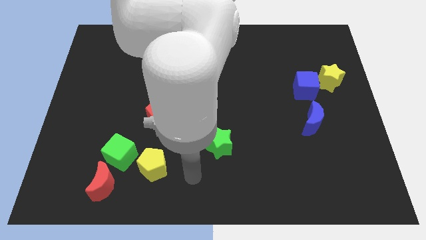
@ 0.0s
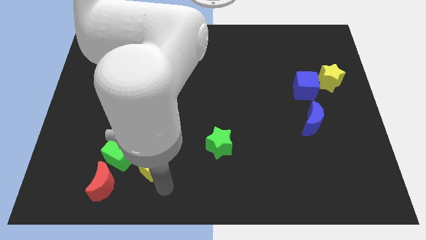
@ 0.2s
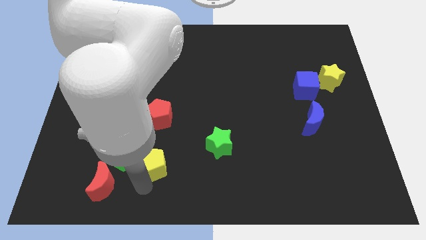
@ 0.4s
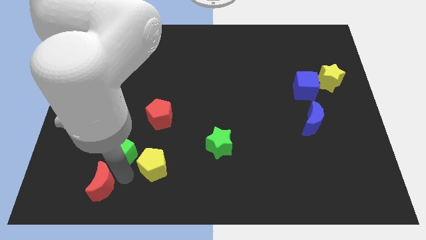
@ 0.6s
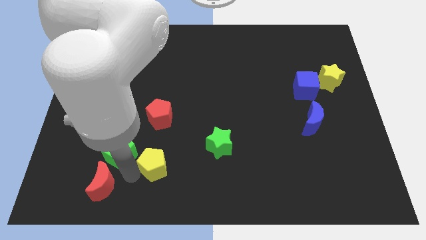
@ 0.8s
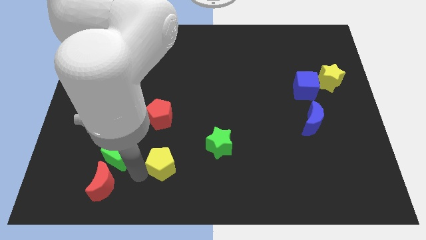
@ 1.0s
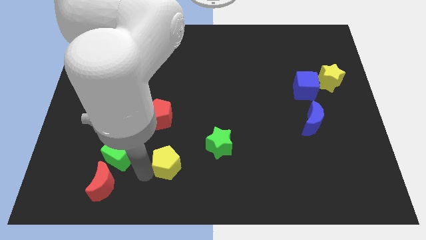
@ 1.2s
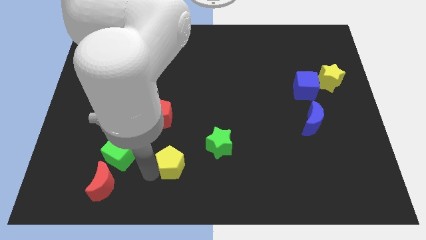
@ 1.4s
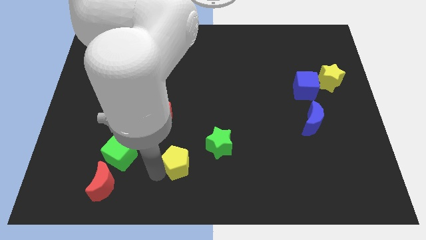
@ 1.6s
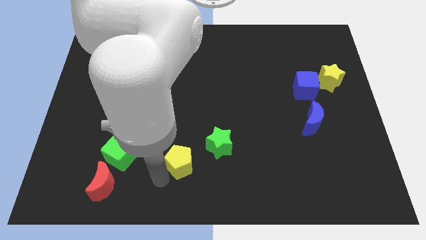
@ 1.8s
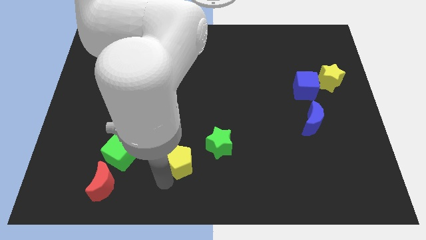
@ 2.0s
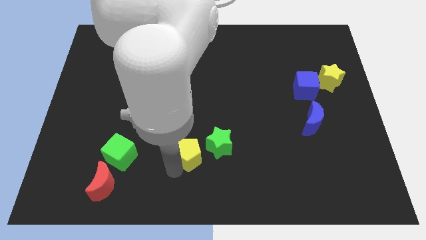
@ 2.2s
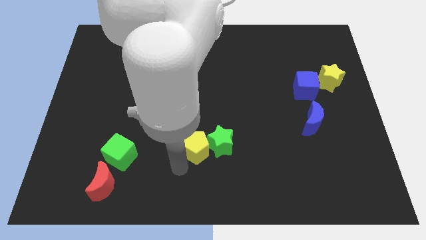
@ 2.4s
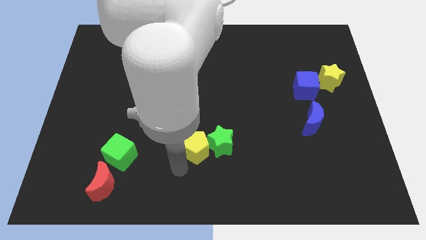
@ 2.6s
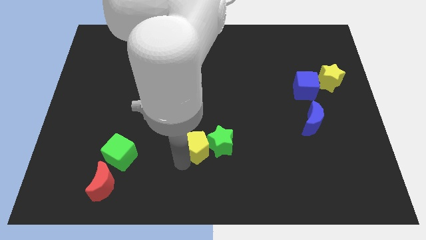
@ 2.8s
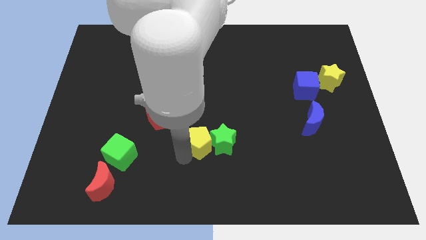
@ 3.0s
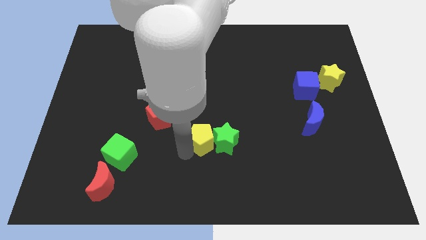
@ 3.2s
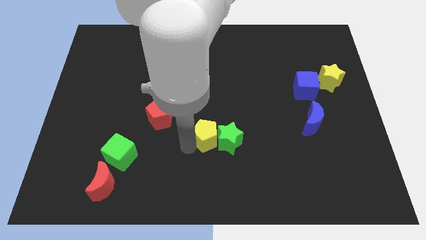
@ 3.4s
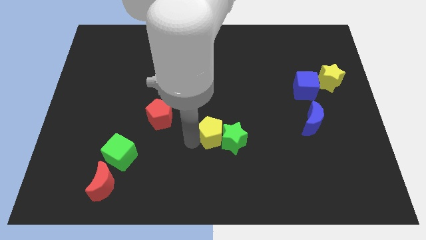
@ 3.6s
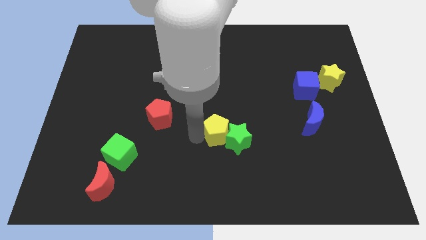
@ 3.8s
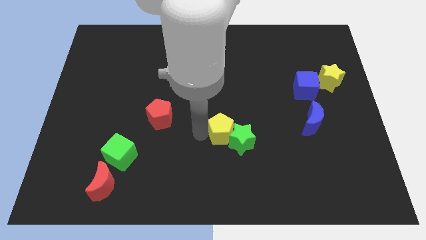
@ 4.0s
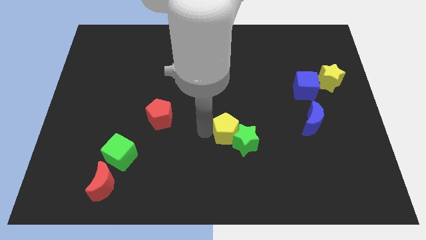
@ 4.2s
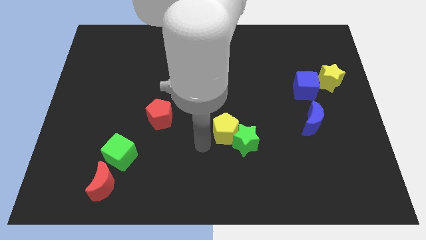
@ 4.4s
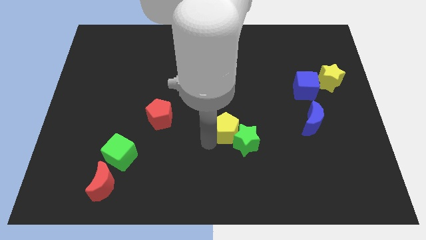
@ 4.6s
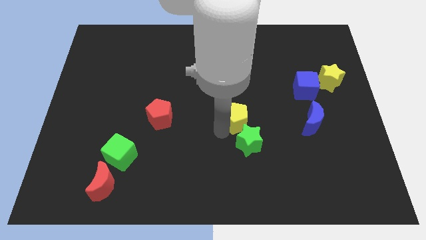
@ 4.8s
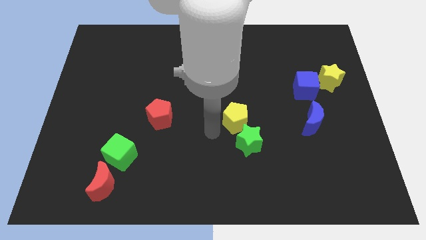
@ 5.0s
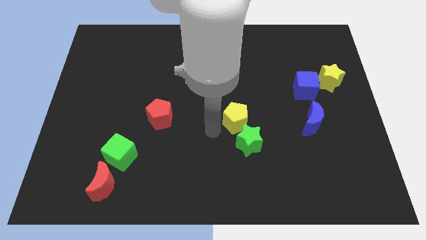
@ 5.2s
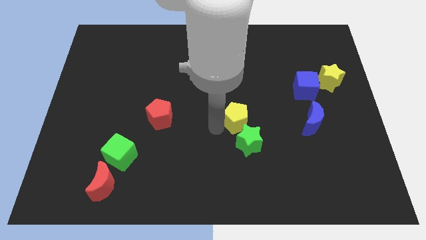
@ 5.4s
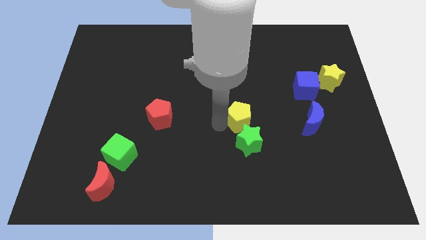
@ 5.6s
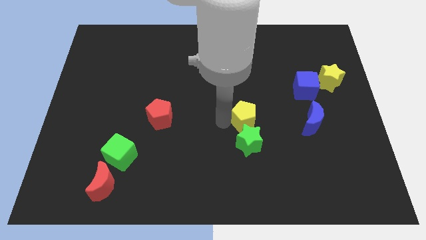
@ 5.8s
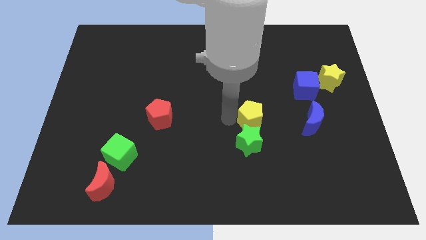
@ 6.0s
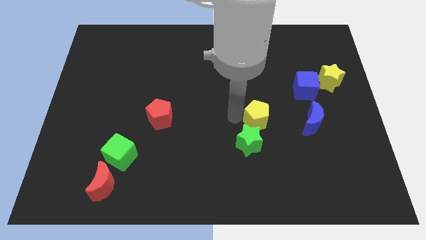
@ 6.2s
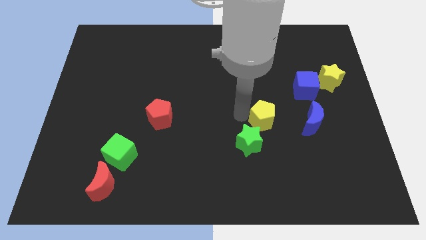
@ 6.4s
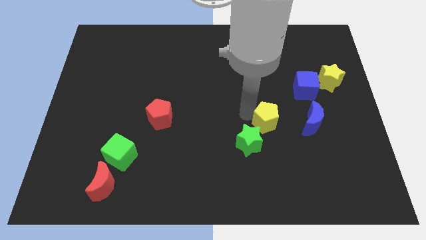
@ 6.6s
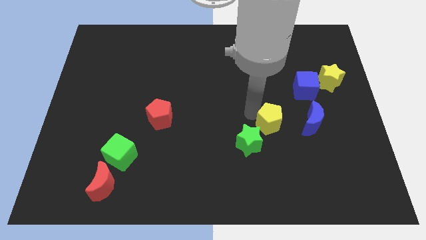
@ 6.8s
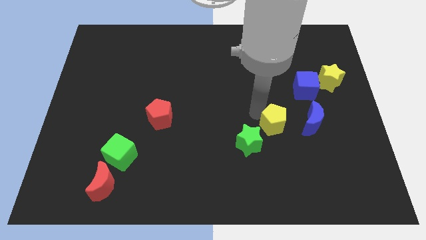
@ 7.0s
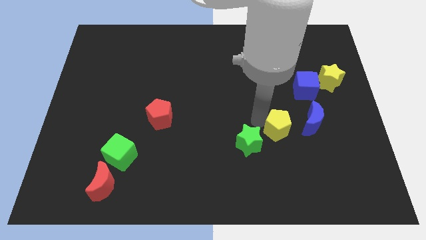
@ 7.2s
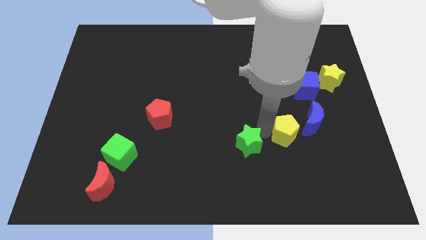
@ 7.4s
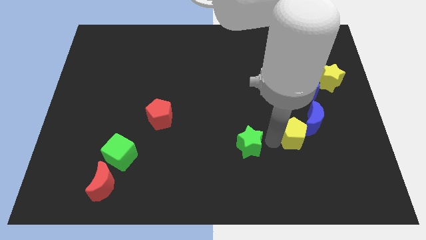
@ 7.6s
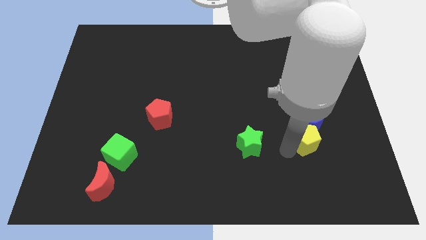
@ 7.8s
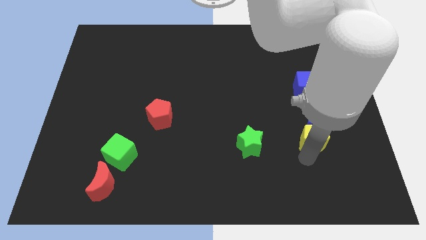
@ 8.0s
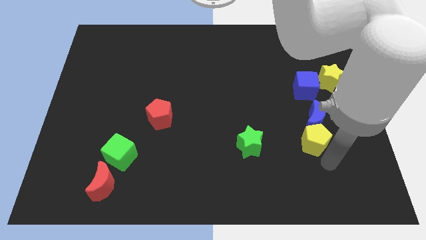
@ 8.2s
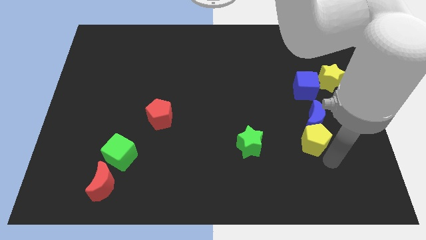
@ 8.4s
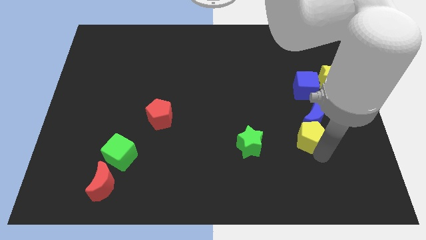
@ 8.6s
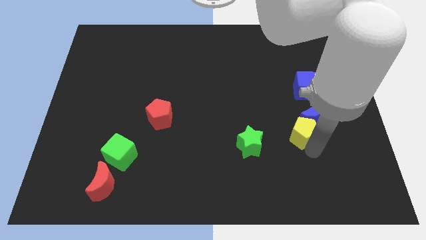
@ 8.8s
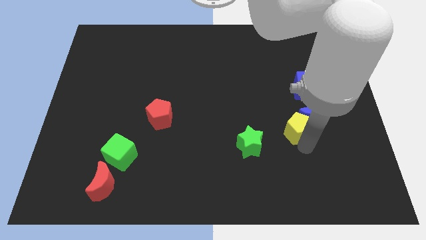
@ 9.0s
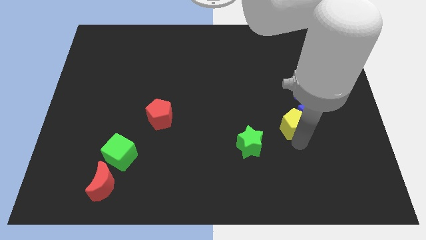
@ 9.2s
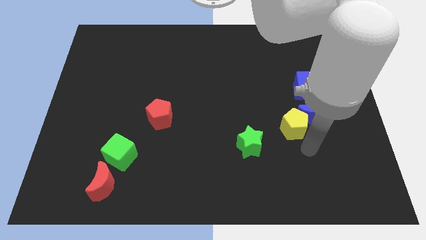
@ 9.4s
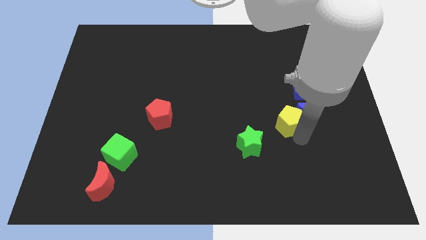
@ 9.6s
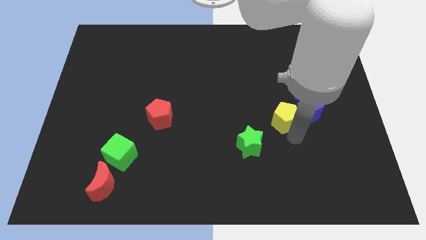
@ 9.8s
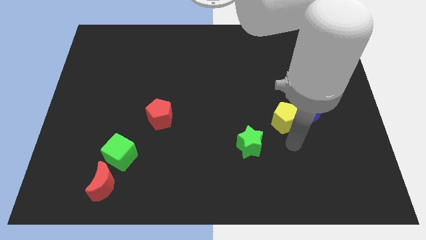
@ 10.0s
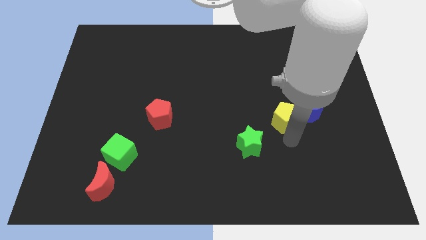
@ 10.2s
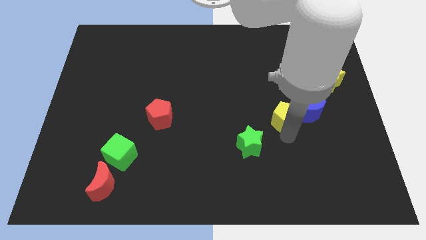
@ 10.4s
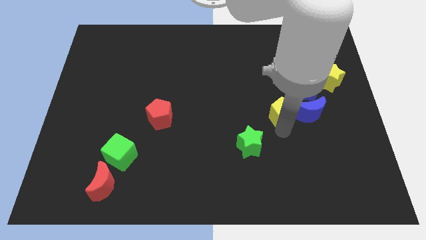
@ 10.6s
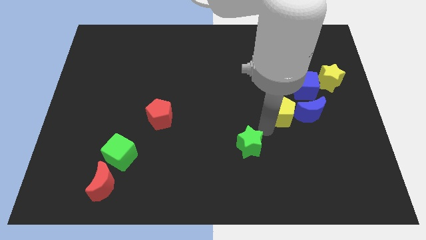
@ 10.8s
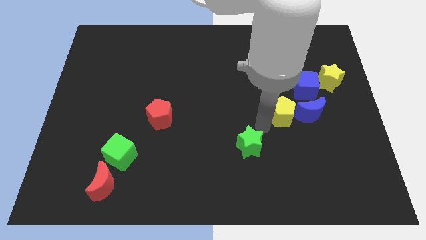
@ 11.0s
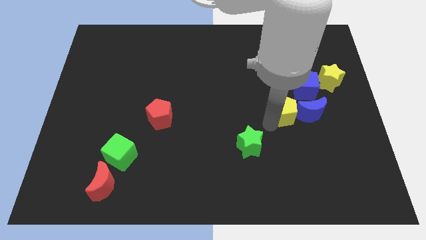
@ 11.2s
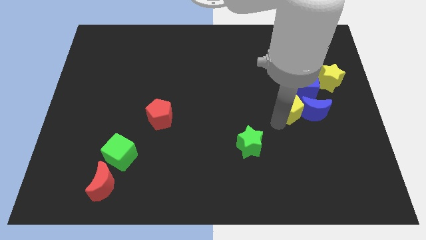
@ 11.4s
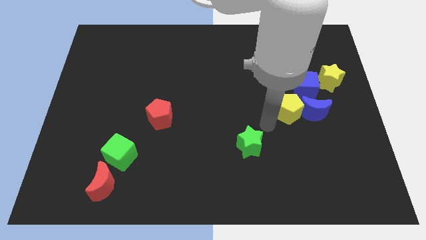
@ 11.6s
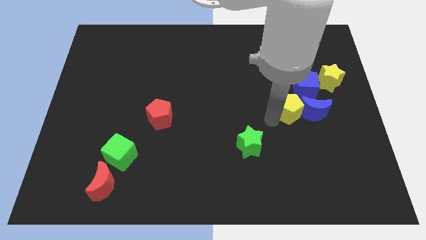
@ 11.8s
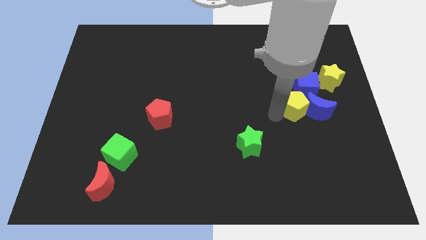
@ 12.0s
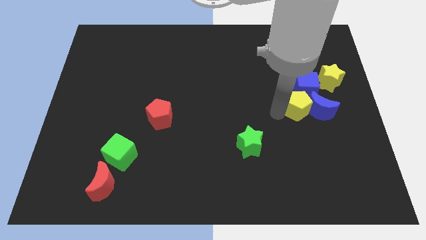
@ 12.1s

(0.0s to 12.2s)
push the yellow pentagon to the bottom left side of the yellow star

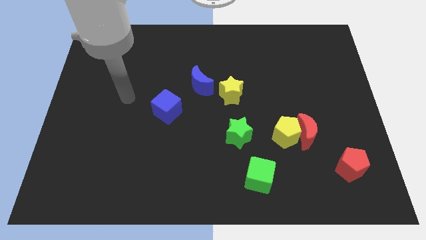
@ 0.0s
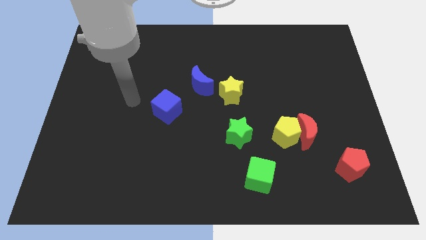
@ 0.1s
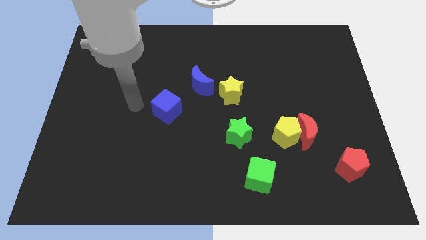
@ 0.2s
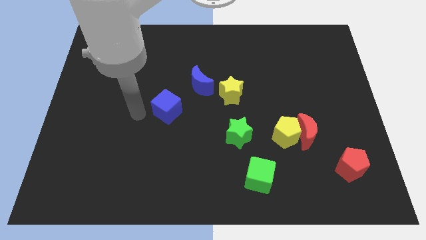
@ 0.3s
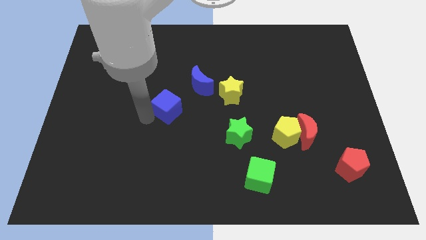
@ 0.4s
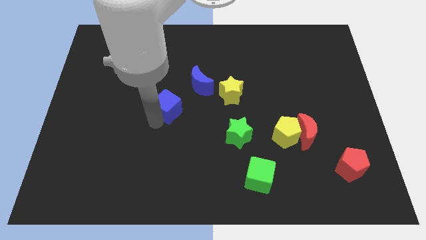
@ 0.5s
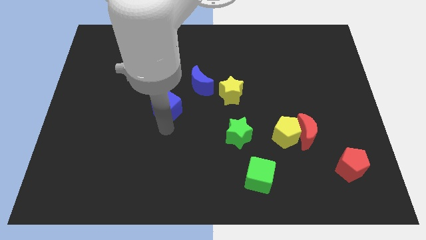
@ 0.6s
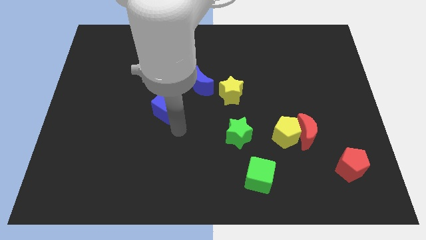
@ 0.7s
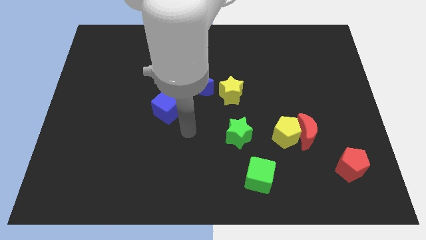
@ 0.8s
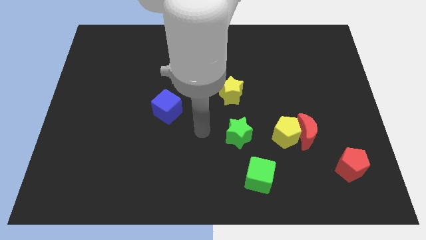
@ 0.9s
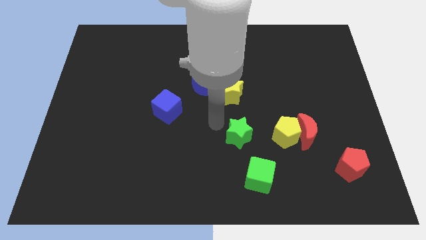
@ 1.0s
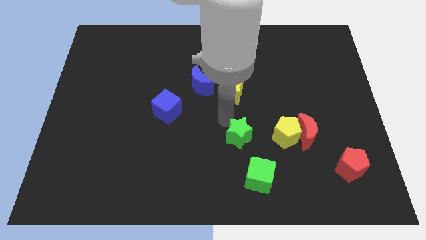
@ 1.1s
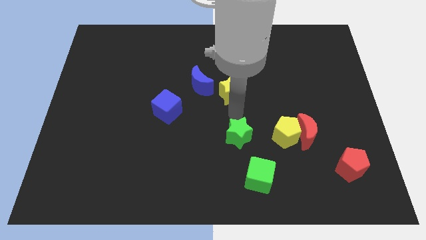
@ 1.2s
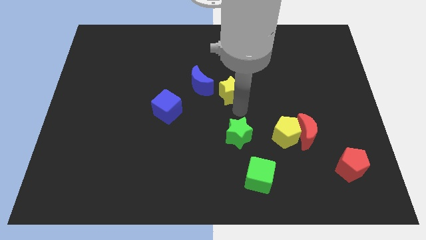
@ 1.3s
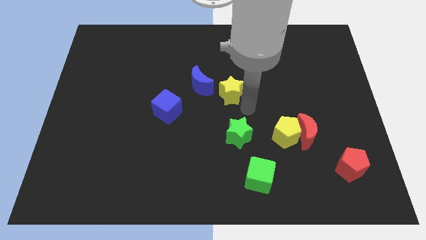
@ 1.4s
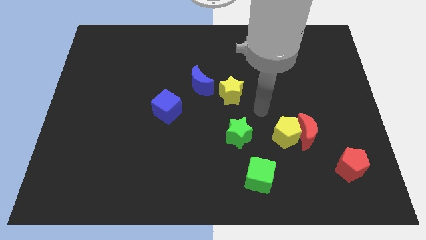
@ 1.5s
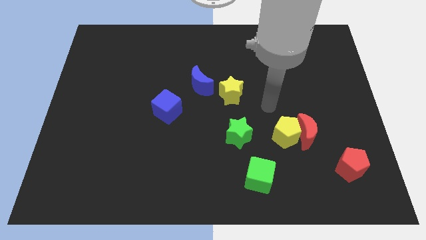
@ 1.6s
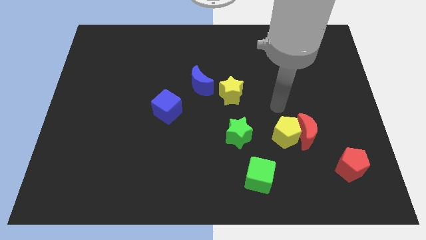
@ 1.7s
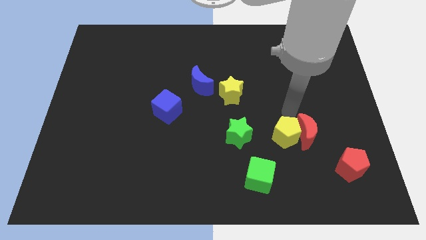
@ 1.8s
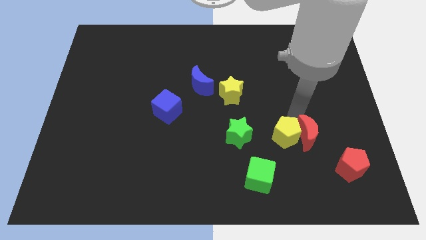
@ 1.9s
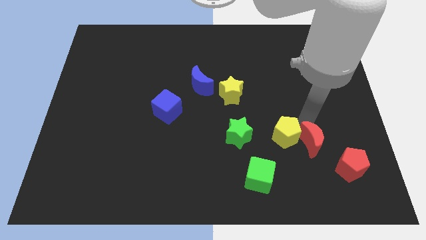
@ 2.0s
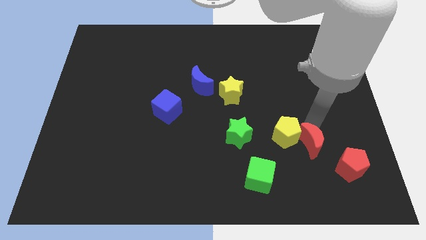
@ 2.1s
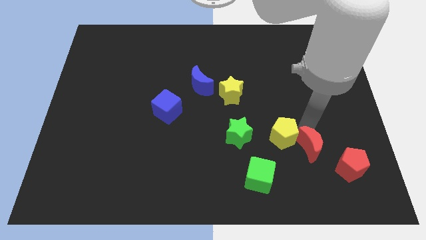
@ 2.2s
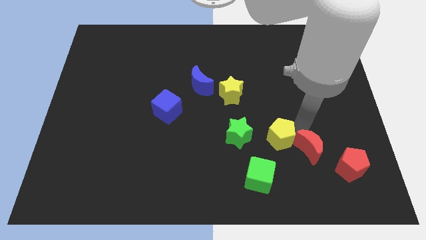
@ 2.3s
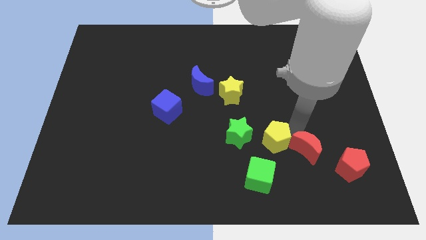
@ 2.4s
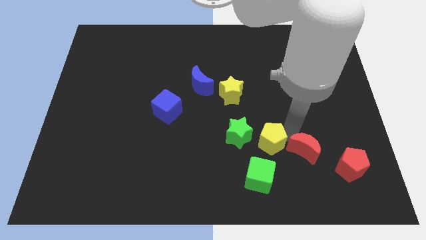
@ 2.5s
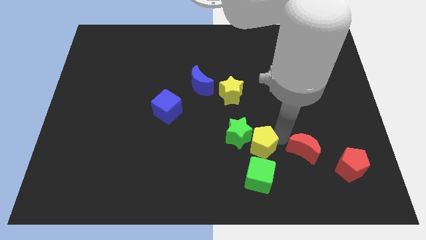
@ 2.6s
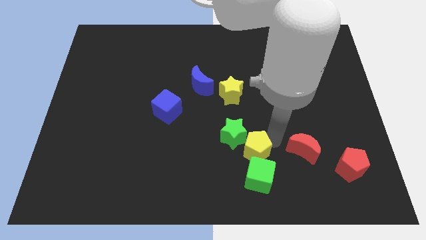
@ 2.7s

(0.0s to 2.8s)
slide the yellow pentagon to the top left of the green cube
